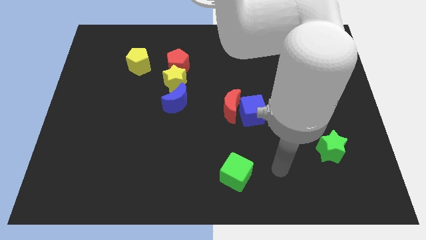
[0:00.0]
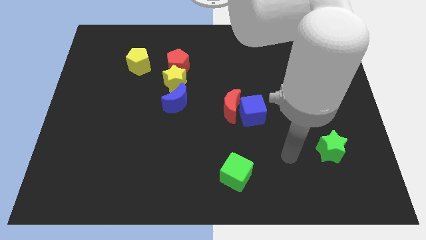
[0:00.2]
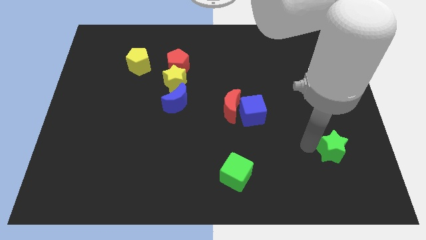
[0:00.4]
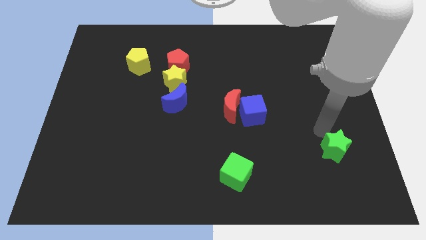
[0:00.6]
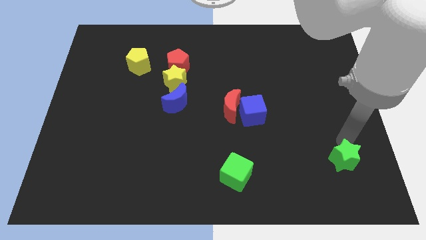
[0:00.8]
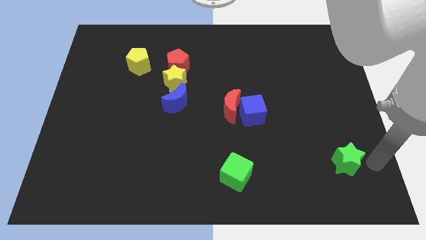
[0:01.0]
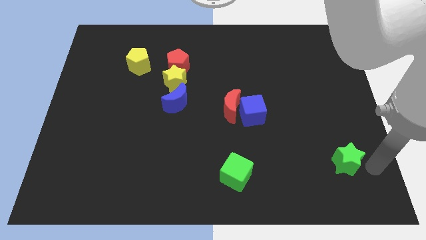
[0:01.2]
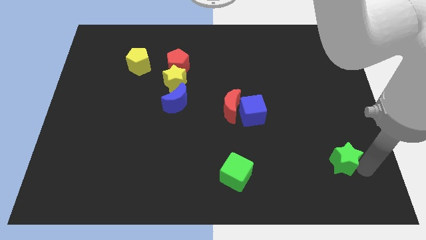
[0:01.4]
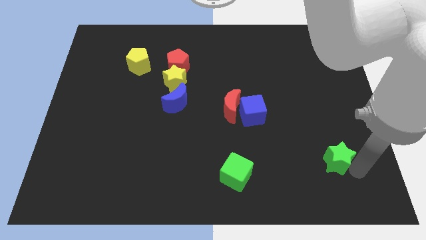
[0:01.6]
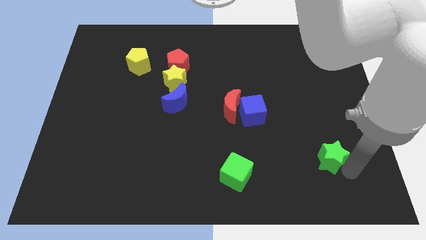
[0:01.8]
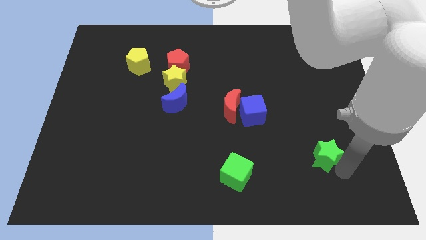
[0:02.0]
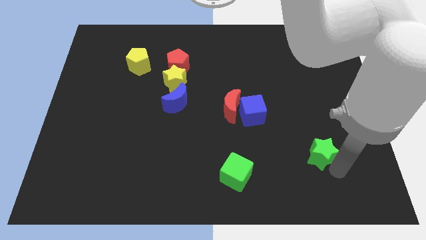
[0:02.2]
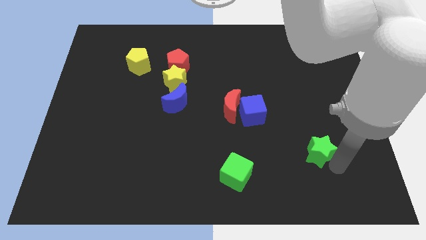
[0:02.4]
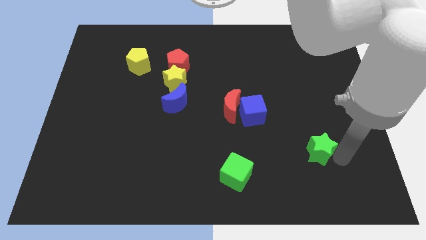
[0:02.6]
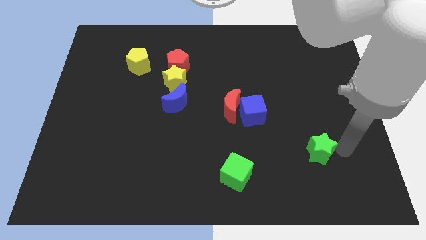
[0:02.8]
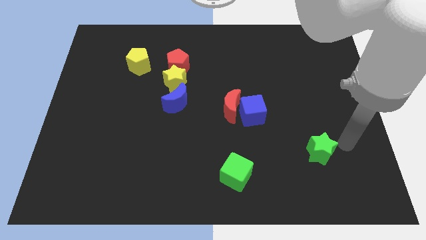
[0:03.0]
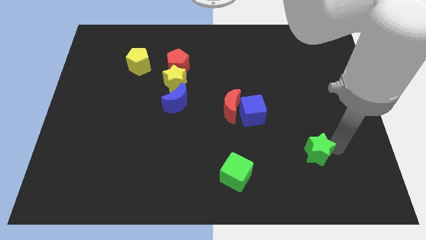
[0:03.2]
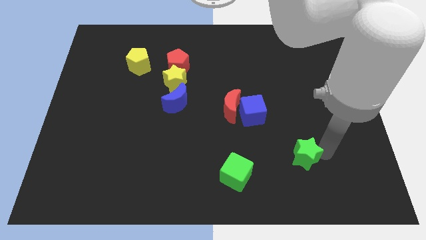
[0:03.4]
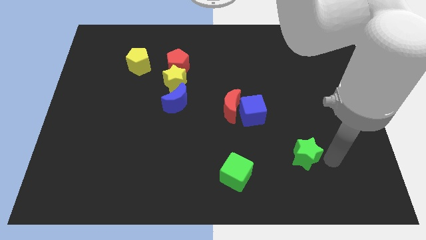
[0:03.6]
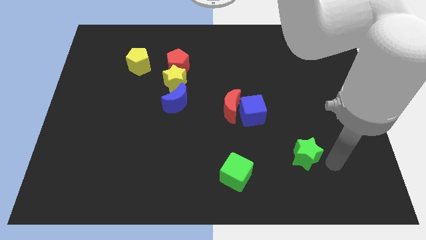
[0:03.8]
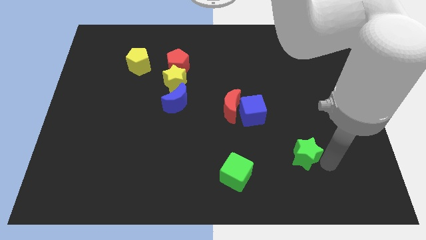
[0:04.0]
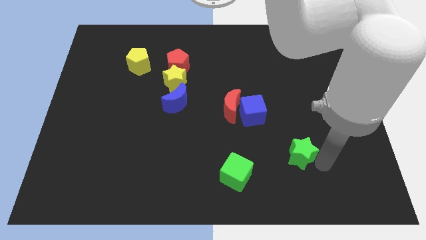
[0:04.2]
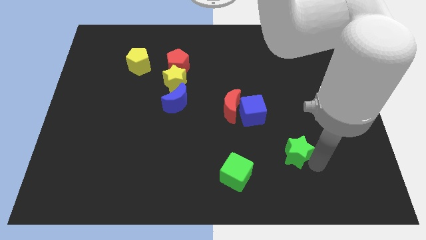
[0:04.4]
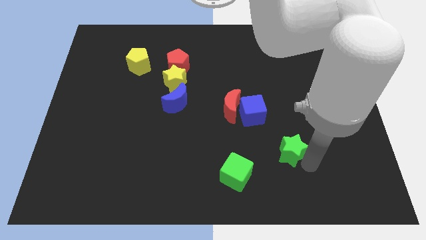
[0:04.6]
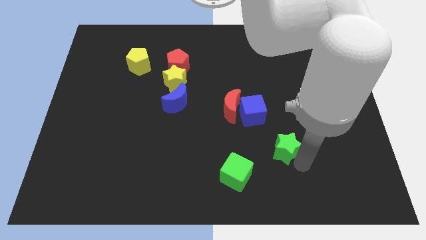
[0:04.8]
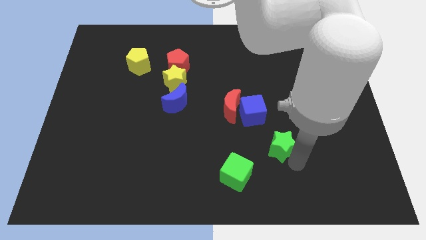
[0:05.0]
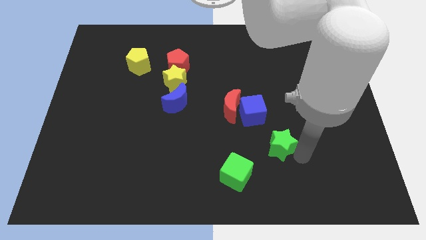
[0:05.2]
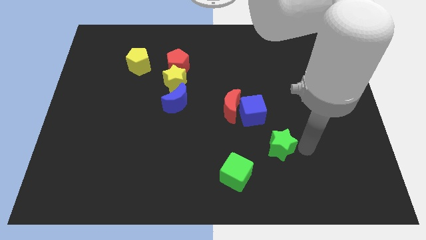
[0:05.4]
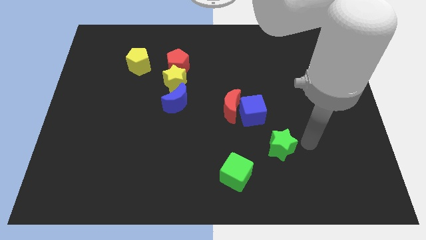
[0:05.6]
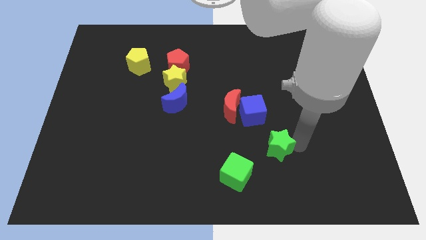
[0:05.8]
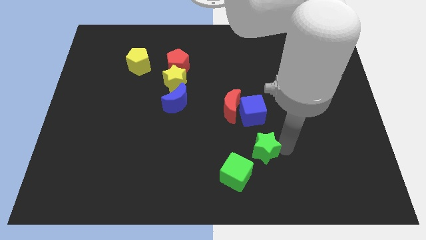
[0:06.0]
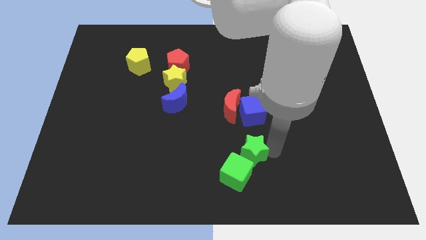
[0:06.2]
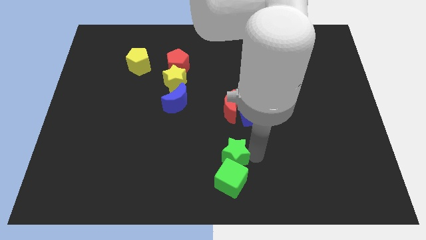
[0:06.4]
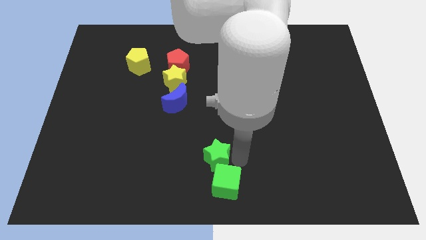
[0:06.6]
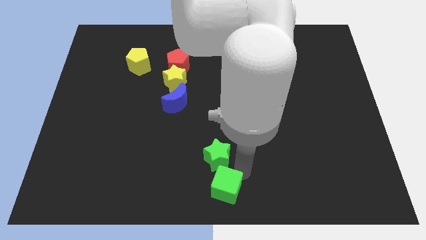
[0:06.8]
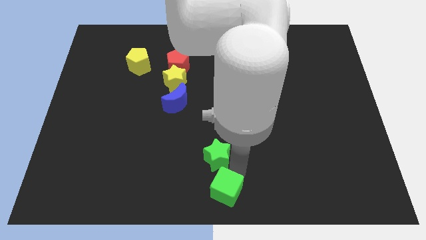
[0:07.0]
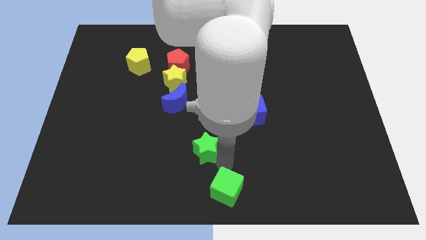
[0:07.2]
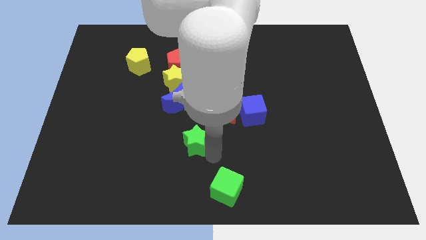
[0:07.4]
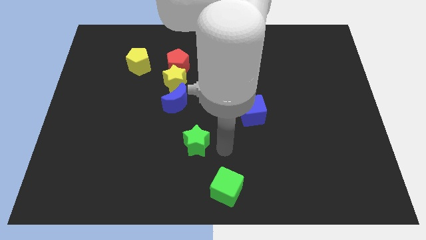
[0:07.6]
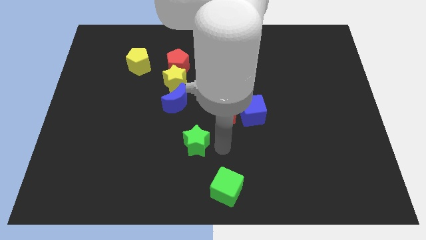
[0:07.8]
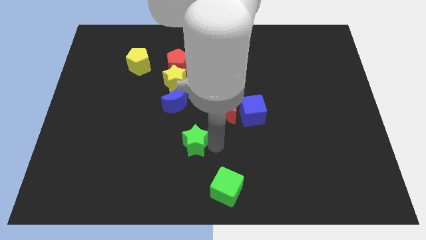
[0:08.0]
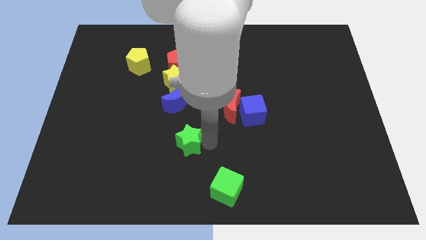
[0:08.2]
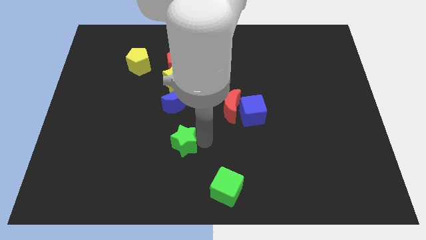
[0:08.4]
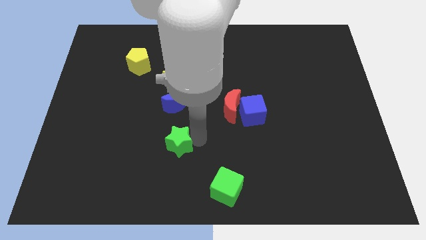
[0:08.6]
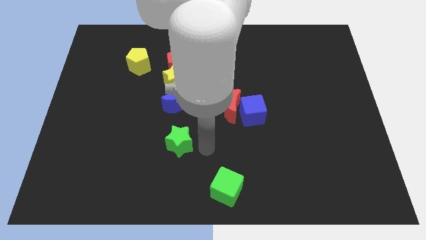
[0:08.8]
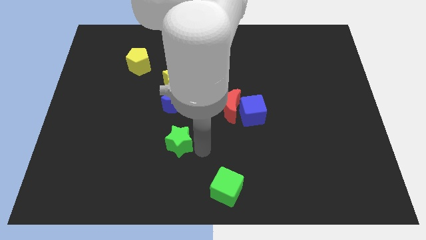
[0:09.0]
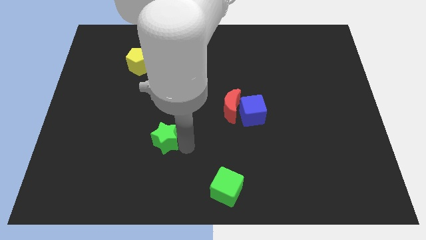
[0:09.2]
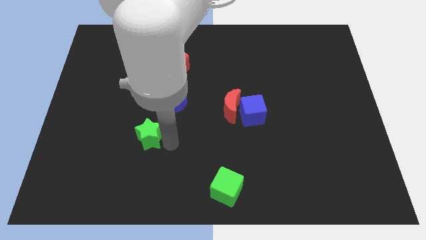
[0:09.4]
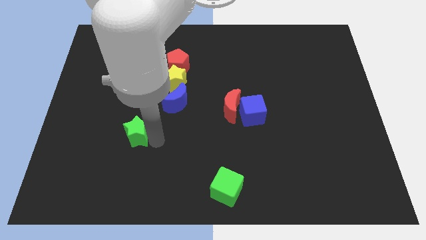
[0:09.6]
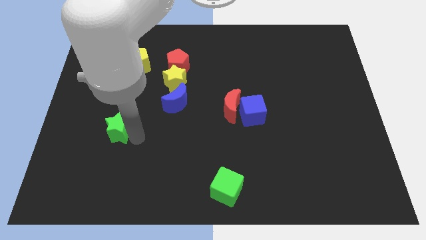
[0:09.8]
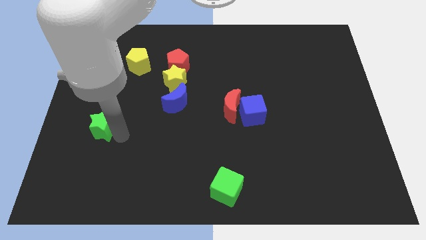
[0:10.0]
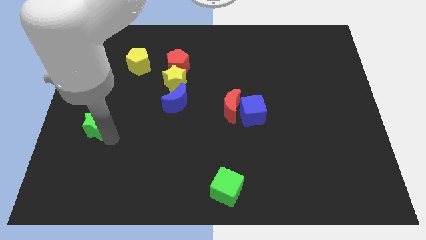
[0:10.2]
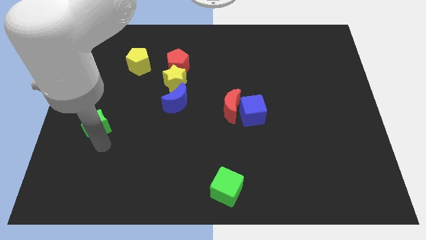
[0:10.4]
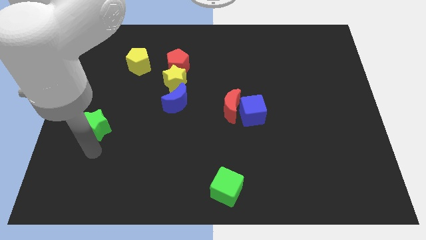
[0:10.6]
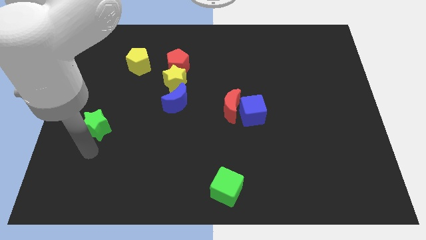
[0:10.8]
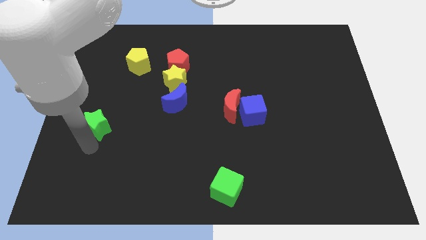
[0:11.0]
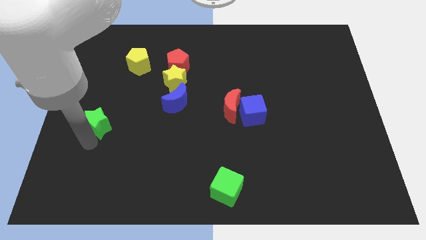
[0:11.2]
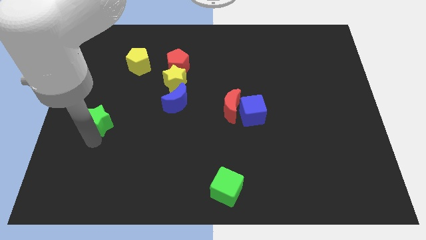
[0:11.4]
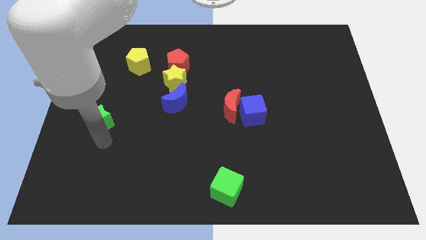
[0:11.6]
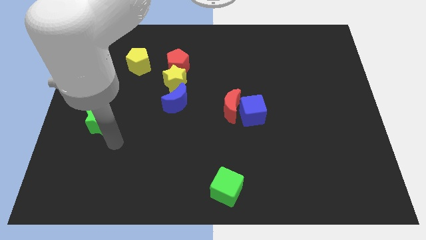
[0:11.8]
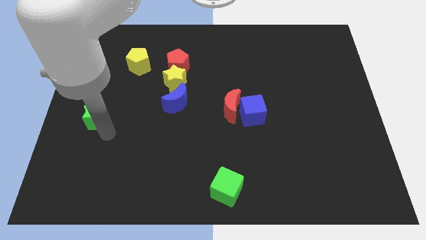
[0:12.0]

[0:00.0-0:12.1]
push the green star to the center left

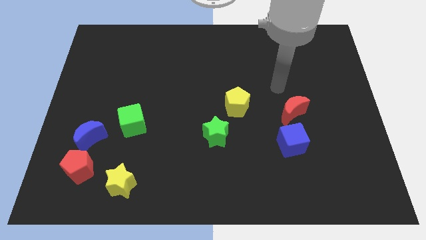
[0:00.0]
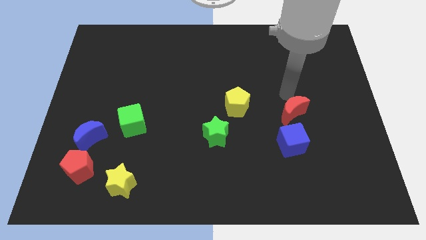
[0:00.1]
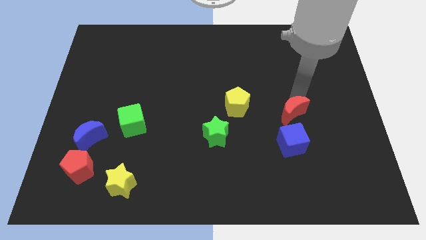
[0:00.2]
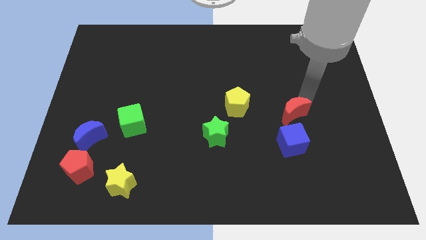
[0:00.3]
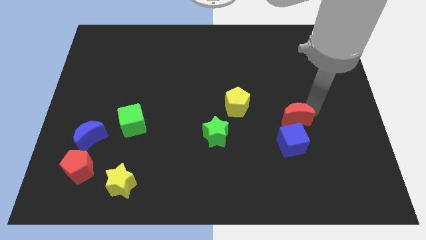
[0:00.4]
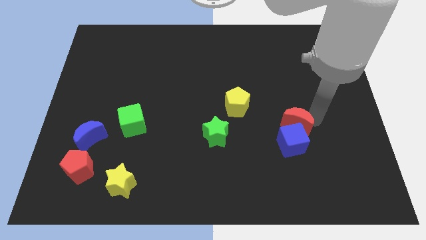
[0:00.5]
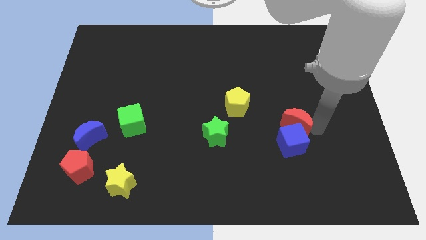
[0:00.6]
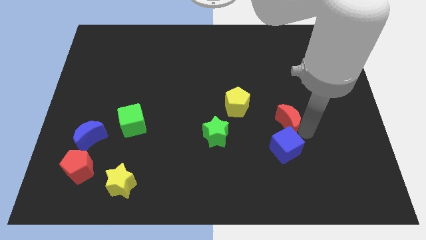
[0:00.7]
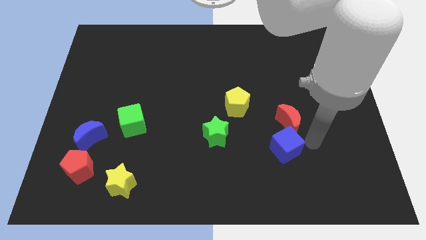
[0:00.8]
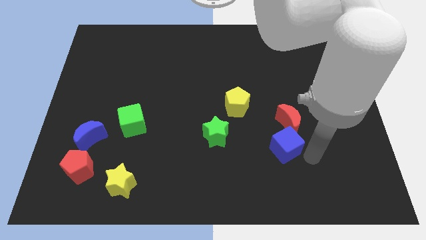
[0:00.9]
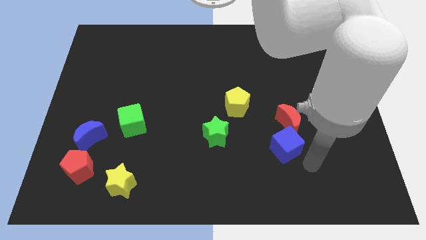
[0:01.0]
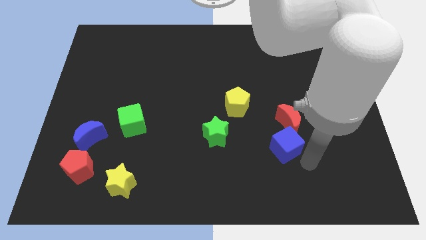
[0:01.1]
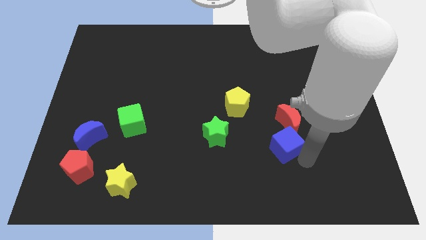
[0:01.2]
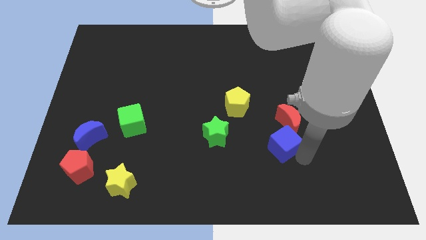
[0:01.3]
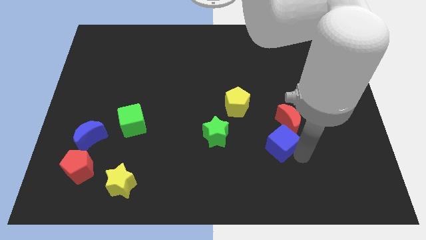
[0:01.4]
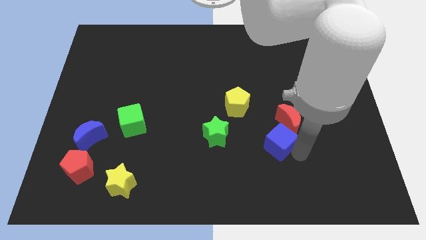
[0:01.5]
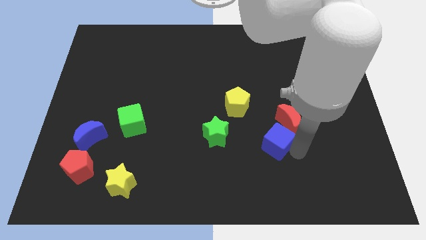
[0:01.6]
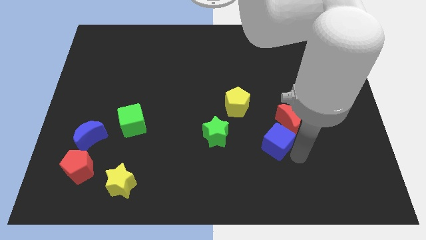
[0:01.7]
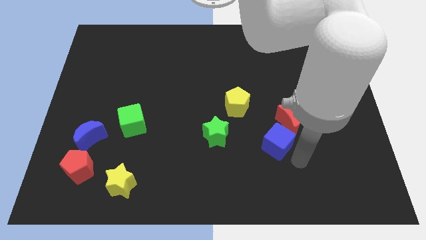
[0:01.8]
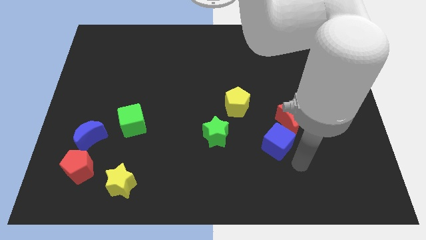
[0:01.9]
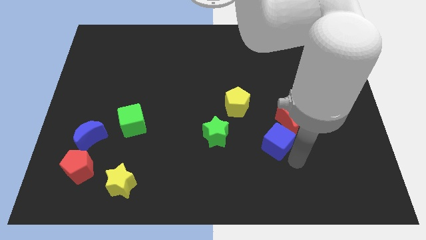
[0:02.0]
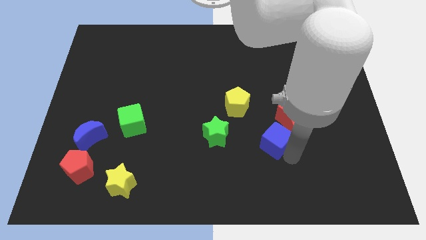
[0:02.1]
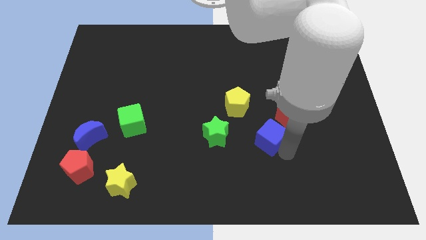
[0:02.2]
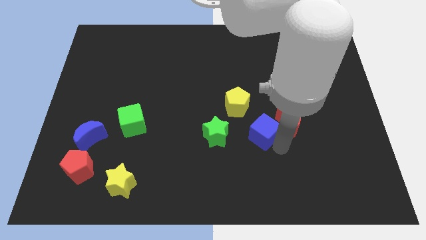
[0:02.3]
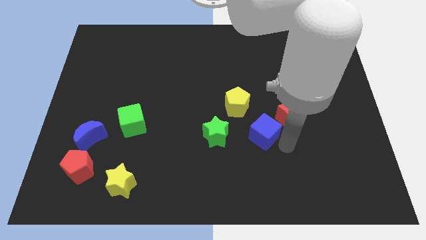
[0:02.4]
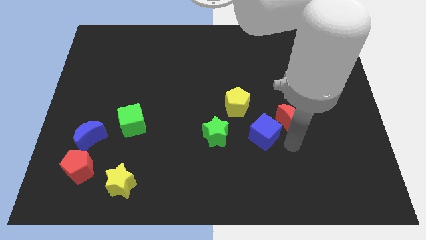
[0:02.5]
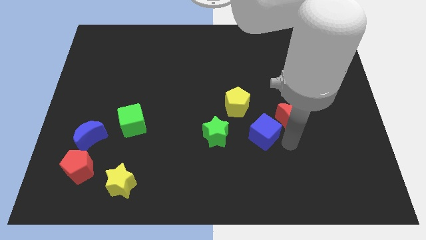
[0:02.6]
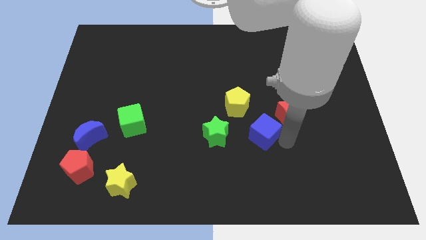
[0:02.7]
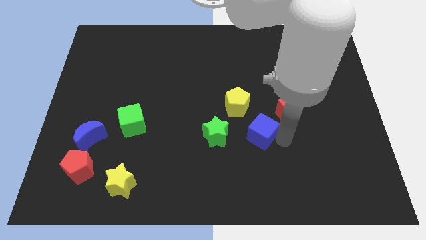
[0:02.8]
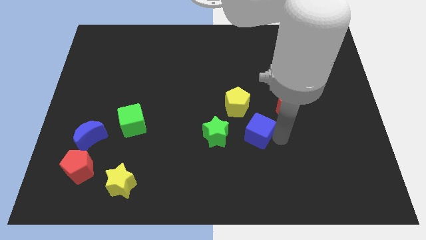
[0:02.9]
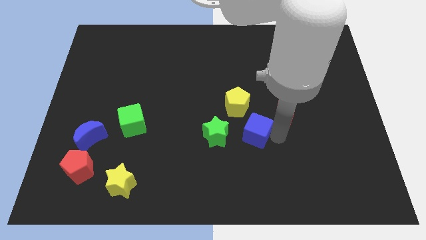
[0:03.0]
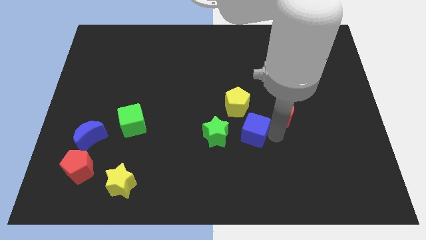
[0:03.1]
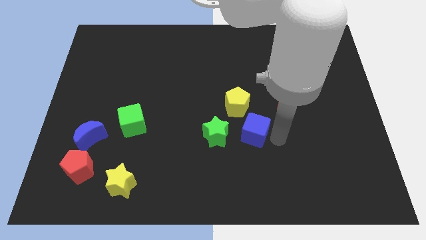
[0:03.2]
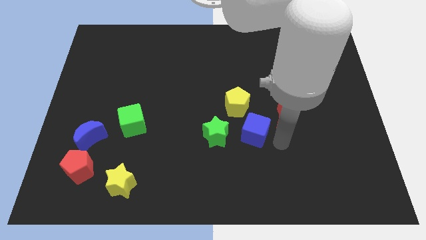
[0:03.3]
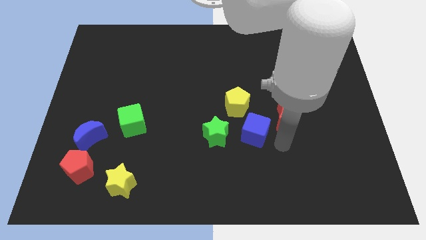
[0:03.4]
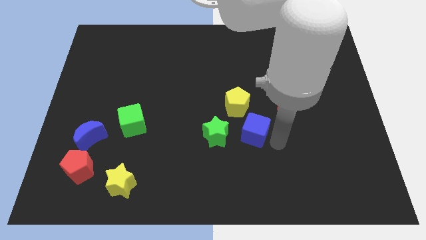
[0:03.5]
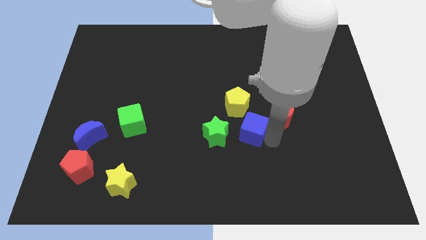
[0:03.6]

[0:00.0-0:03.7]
slide the blue cube to the center of the board
